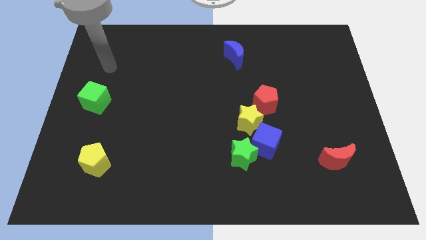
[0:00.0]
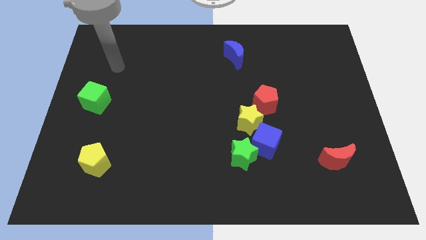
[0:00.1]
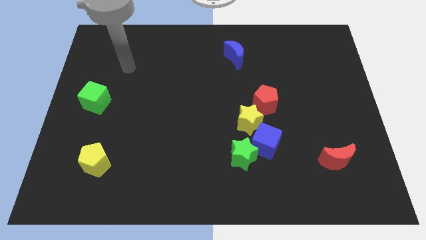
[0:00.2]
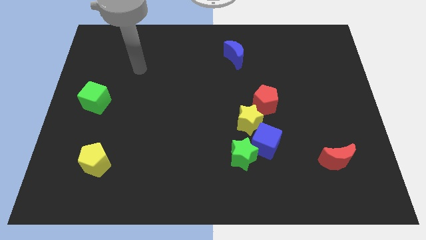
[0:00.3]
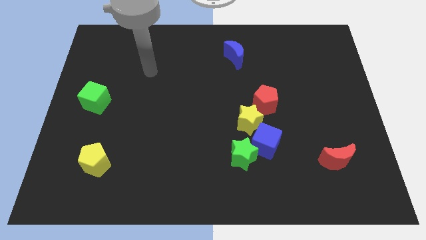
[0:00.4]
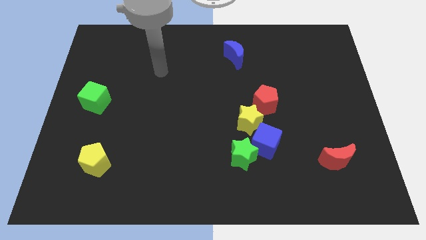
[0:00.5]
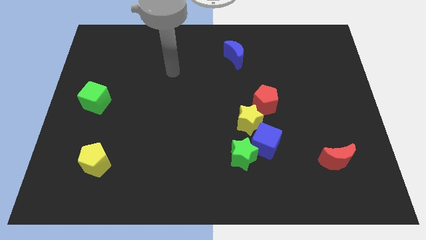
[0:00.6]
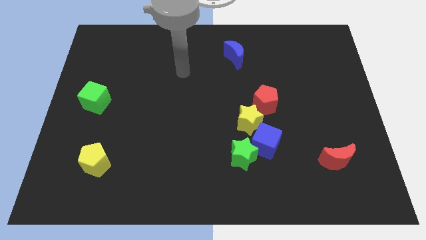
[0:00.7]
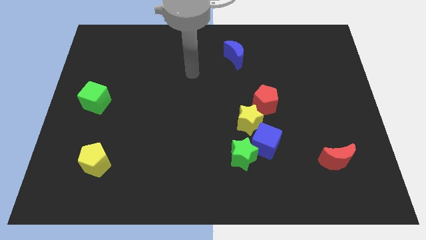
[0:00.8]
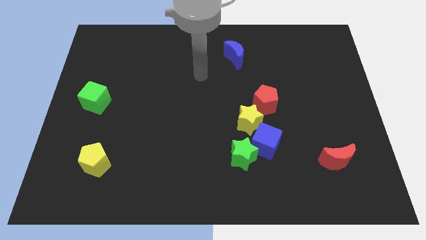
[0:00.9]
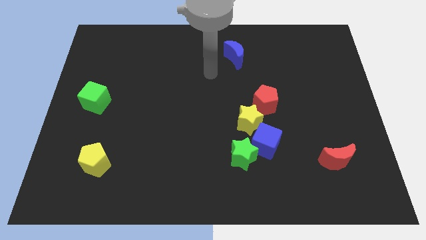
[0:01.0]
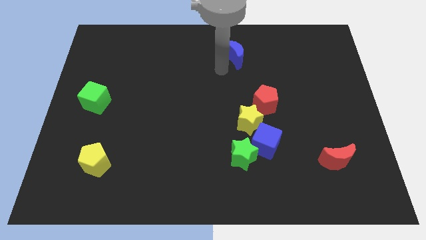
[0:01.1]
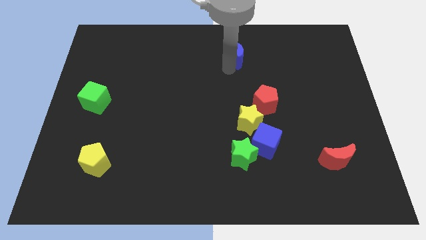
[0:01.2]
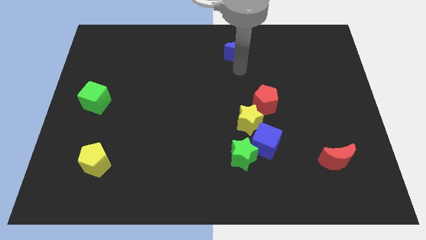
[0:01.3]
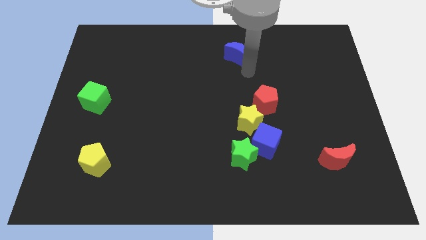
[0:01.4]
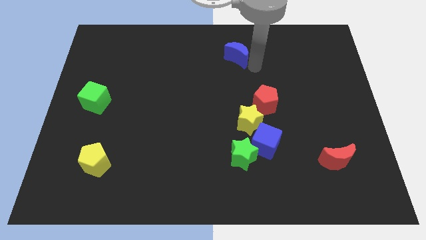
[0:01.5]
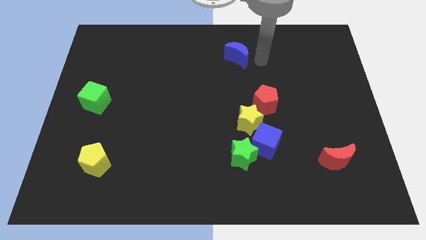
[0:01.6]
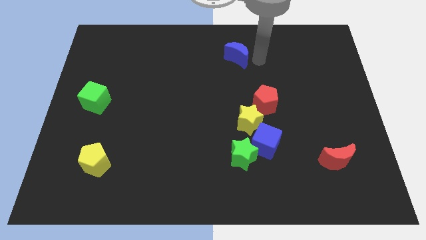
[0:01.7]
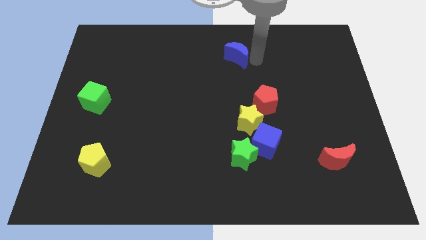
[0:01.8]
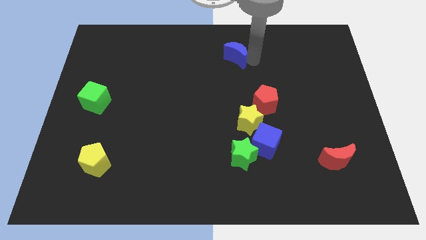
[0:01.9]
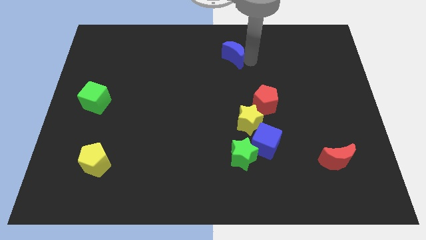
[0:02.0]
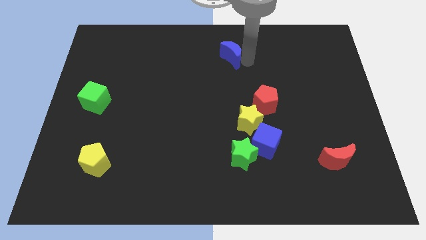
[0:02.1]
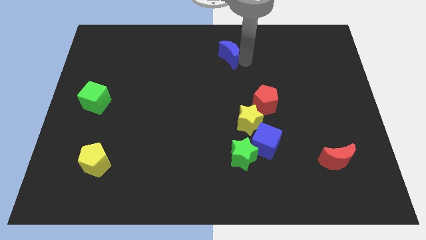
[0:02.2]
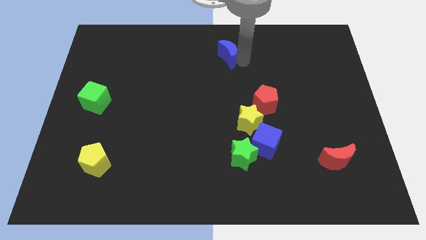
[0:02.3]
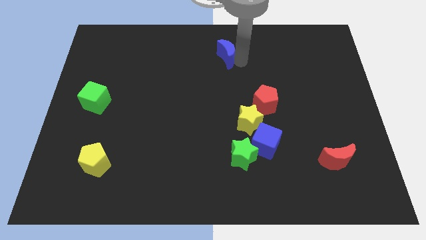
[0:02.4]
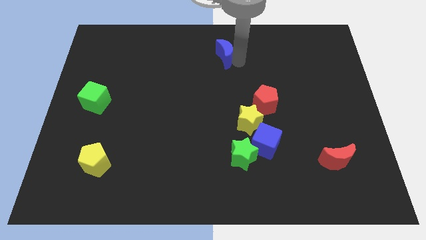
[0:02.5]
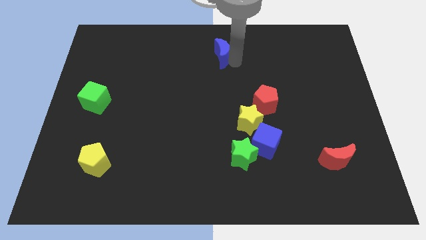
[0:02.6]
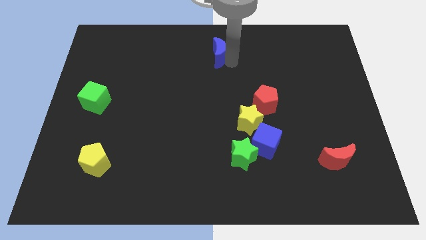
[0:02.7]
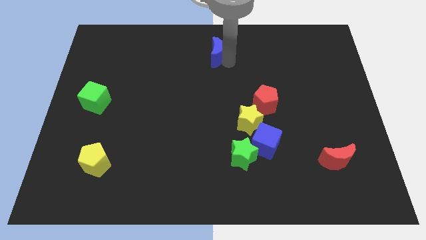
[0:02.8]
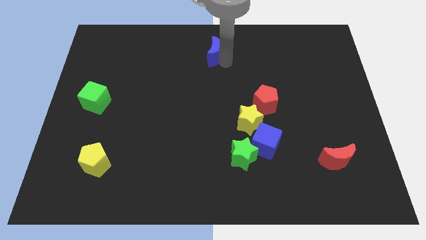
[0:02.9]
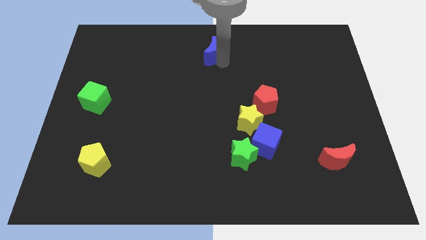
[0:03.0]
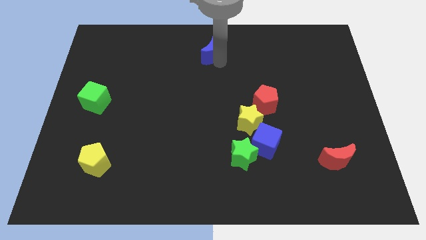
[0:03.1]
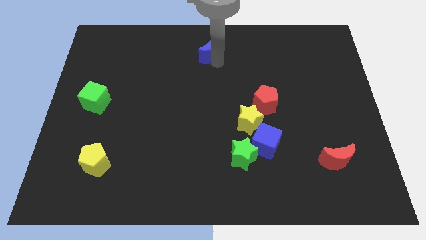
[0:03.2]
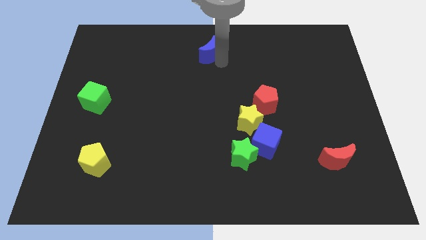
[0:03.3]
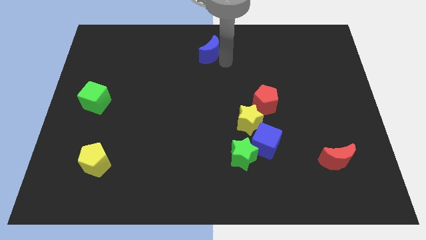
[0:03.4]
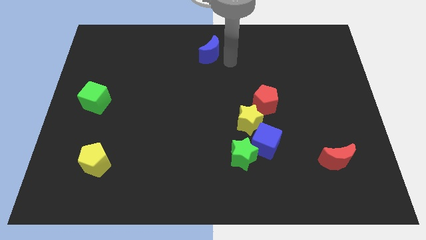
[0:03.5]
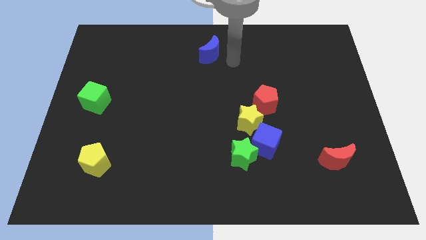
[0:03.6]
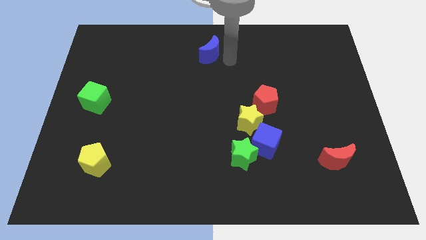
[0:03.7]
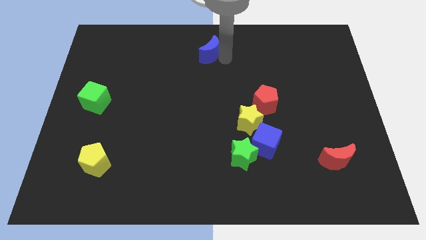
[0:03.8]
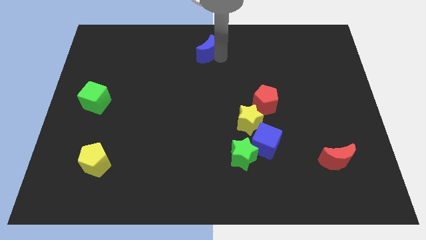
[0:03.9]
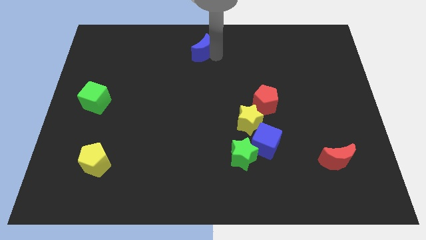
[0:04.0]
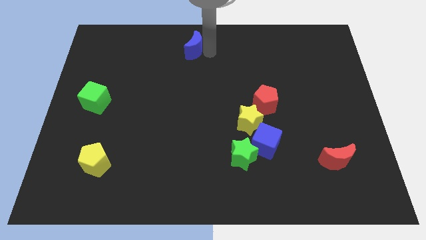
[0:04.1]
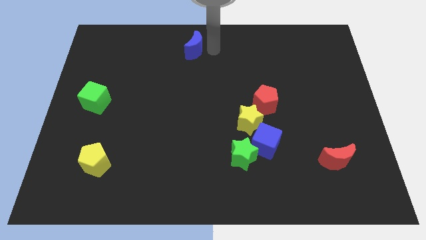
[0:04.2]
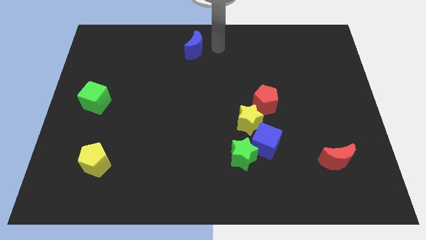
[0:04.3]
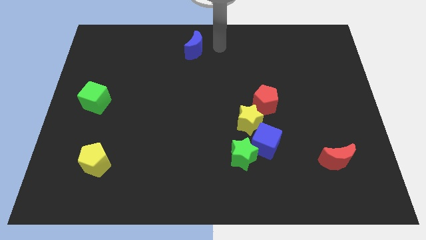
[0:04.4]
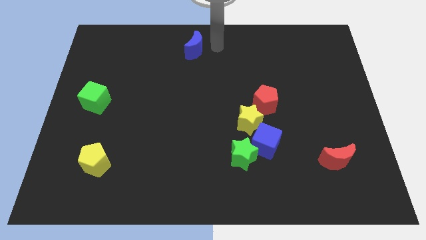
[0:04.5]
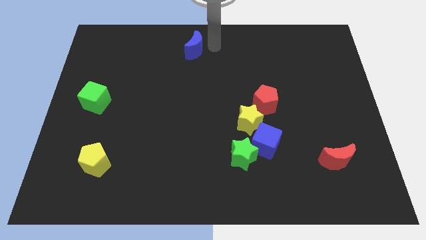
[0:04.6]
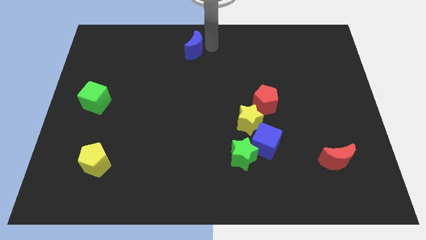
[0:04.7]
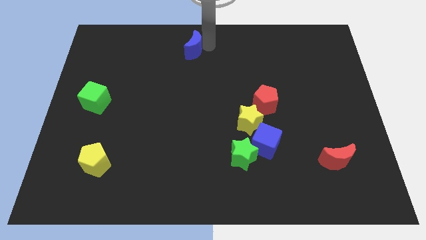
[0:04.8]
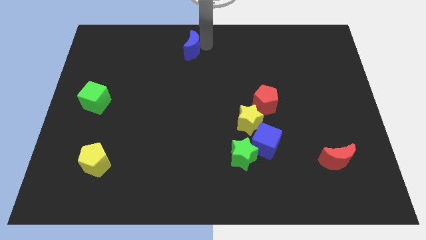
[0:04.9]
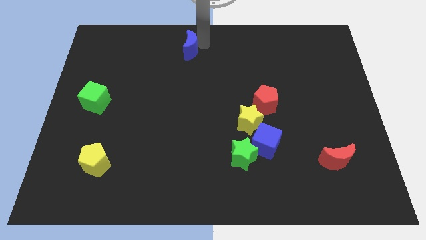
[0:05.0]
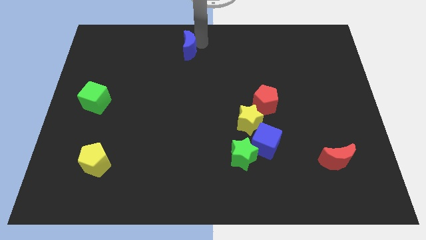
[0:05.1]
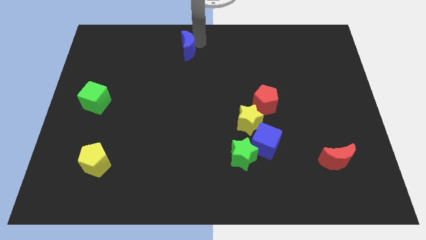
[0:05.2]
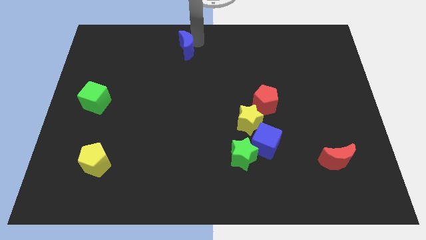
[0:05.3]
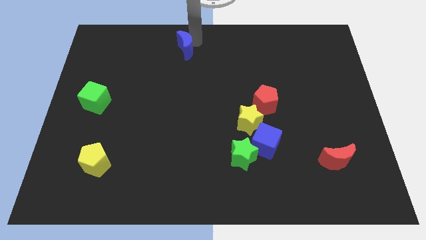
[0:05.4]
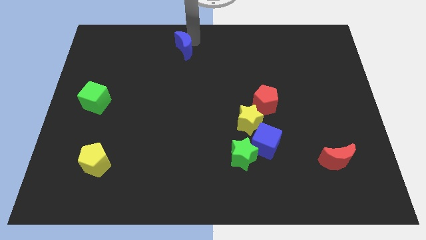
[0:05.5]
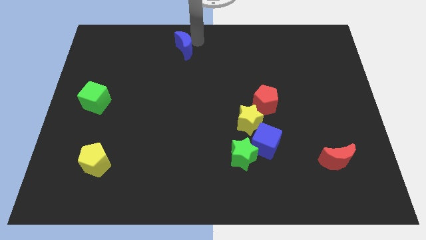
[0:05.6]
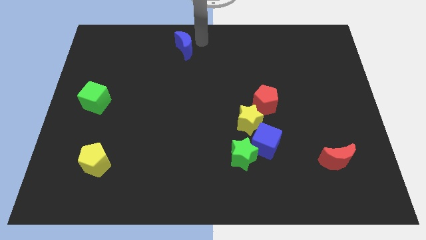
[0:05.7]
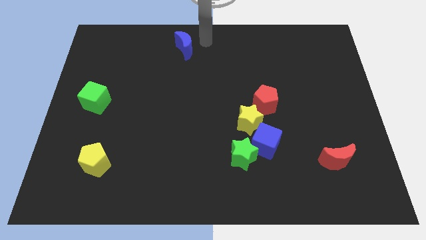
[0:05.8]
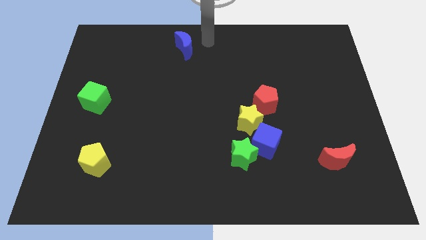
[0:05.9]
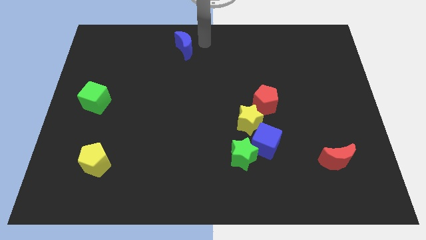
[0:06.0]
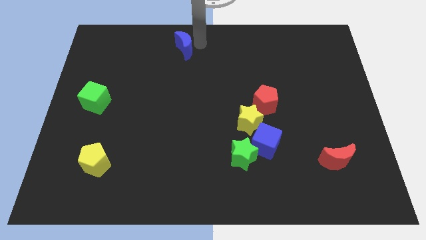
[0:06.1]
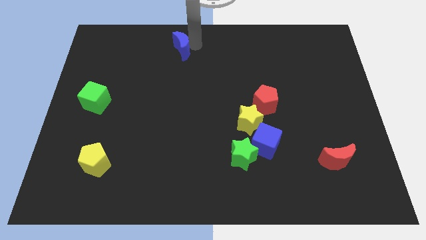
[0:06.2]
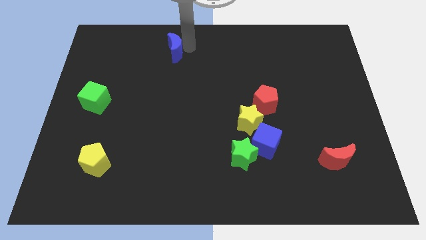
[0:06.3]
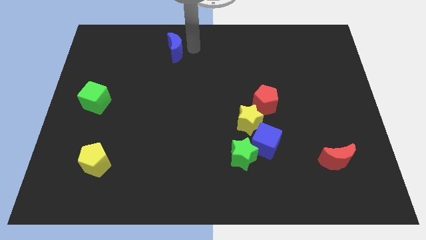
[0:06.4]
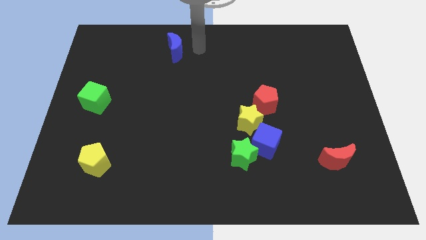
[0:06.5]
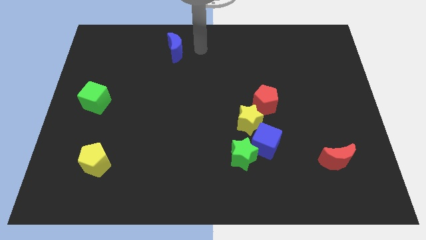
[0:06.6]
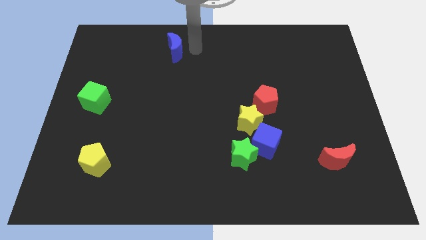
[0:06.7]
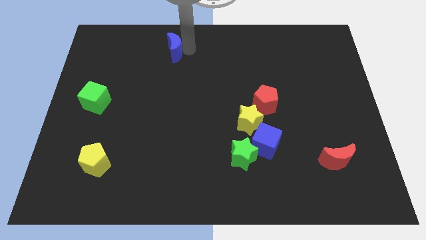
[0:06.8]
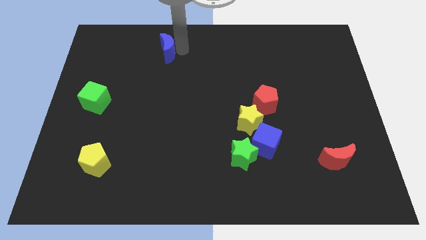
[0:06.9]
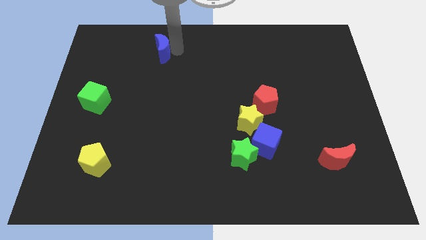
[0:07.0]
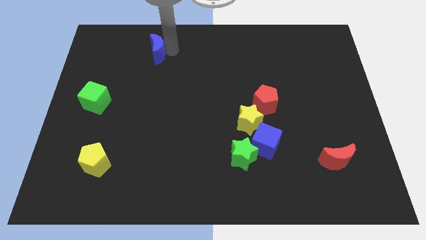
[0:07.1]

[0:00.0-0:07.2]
move the blue moon left

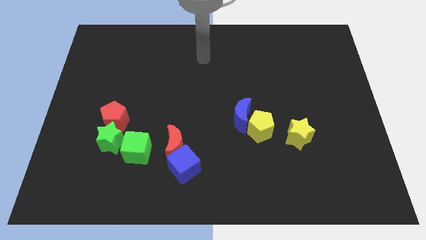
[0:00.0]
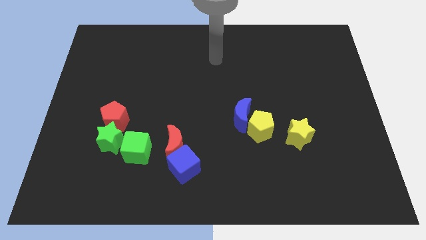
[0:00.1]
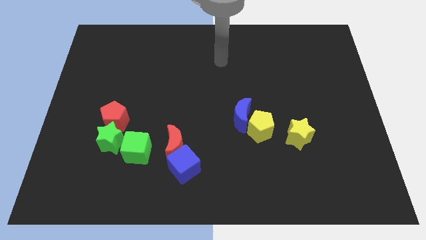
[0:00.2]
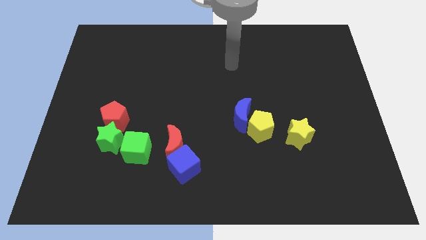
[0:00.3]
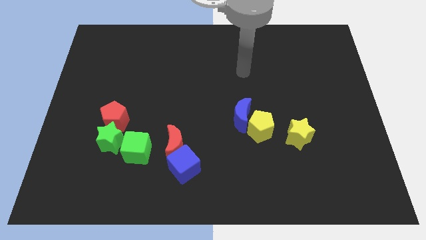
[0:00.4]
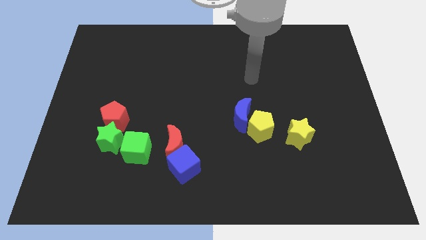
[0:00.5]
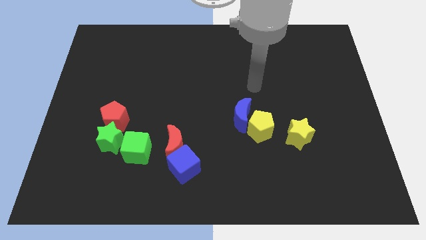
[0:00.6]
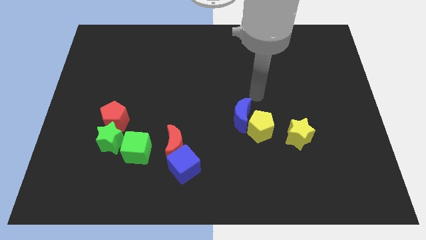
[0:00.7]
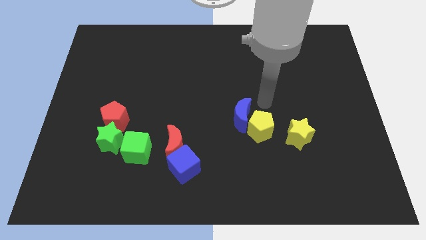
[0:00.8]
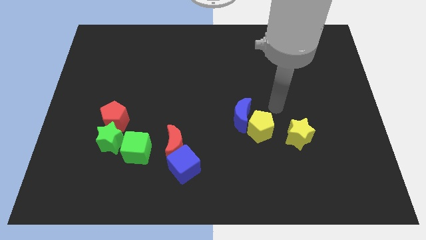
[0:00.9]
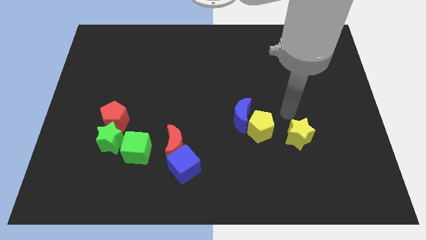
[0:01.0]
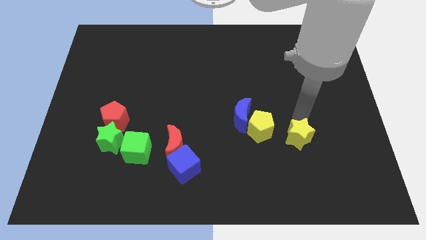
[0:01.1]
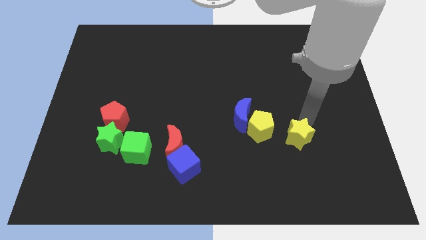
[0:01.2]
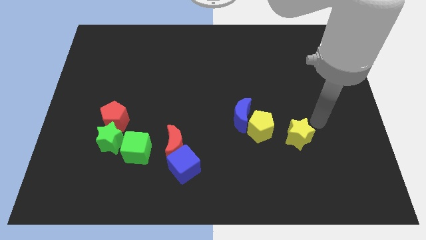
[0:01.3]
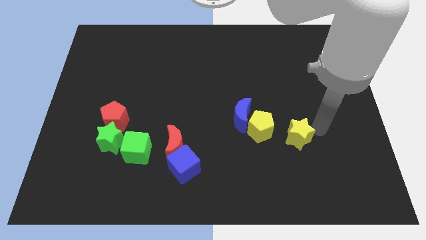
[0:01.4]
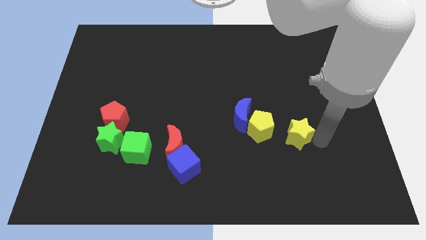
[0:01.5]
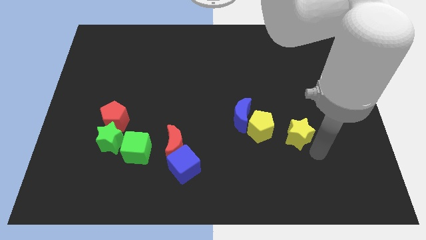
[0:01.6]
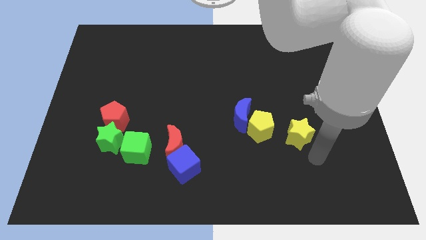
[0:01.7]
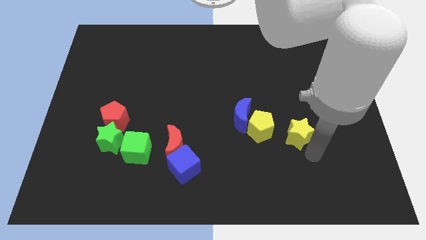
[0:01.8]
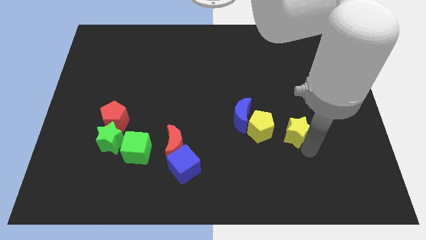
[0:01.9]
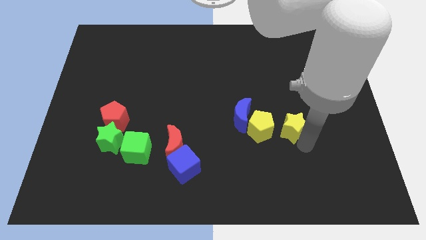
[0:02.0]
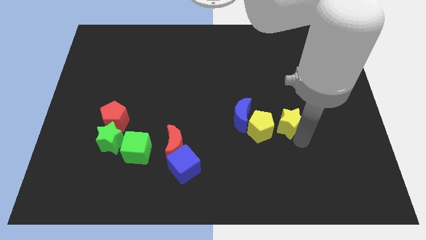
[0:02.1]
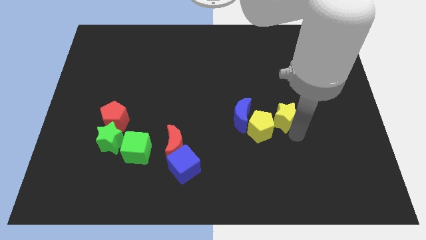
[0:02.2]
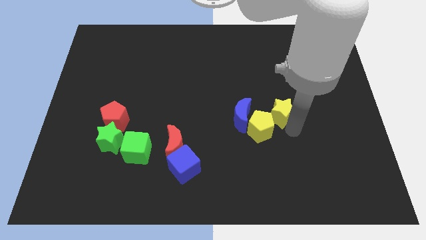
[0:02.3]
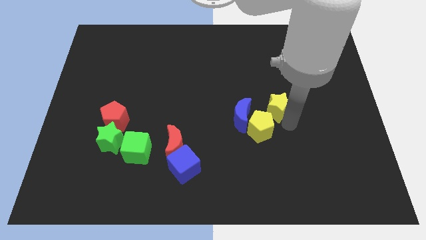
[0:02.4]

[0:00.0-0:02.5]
slightly push the yellow star up and then left
